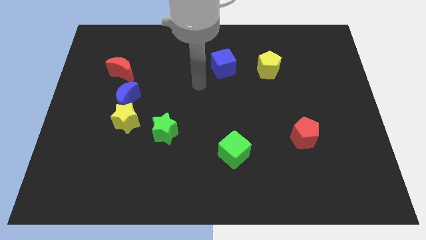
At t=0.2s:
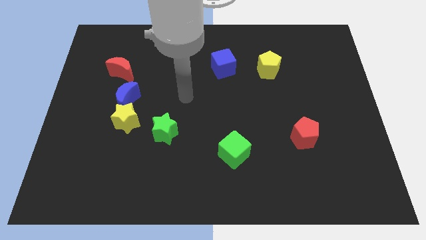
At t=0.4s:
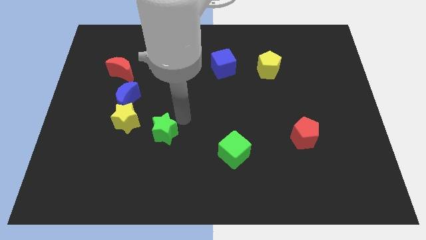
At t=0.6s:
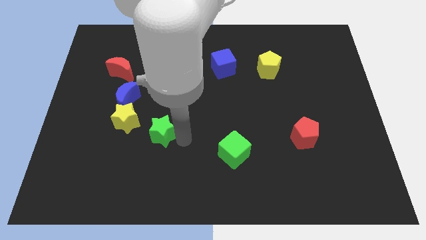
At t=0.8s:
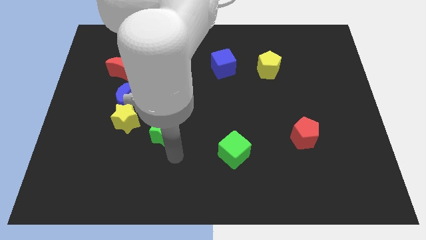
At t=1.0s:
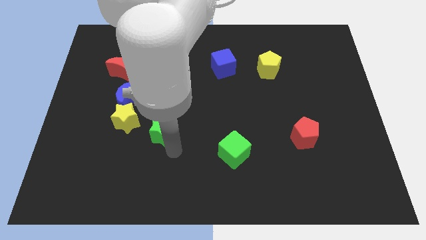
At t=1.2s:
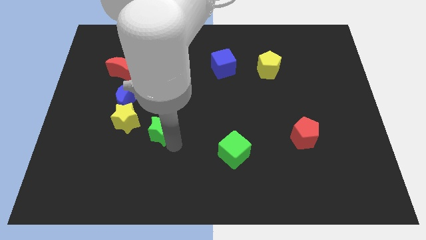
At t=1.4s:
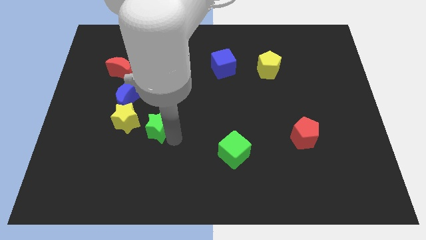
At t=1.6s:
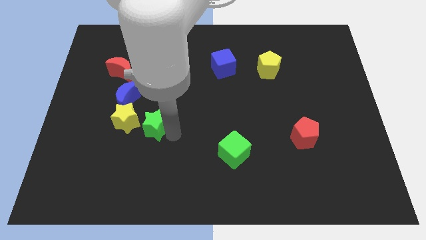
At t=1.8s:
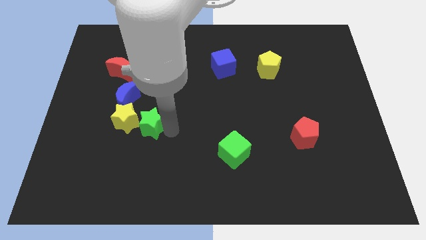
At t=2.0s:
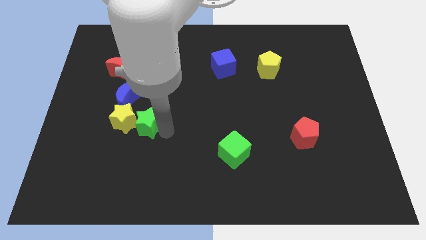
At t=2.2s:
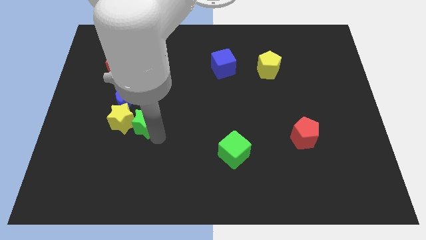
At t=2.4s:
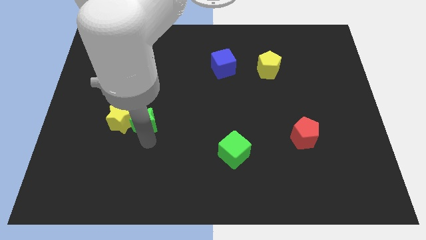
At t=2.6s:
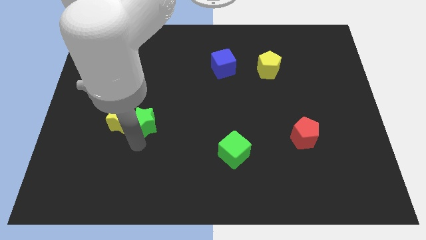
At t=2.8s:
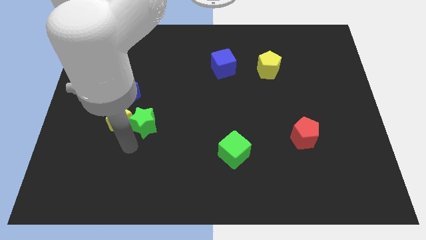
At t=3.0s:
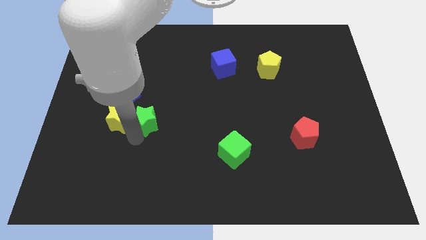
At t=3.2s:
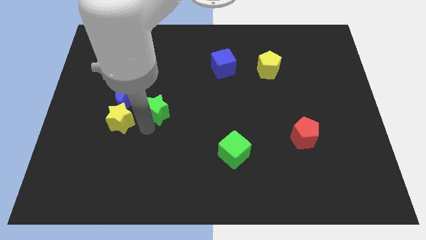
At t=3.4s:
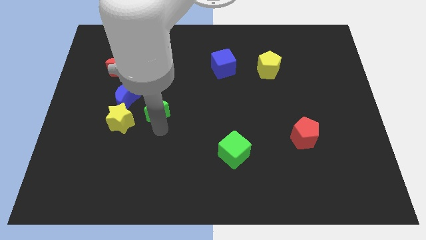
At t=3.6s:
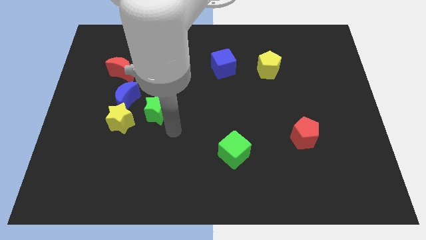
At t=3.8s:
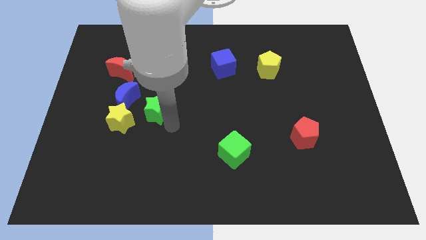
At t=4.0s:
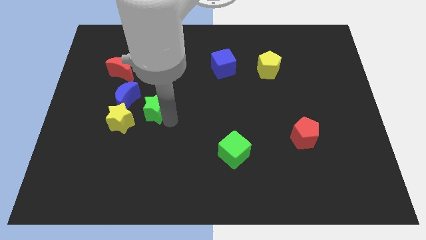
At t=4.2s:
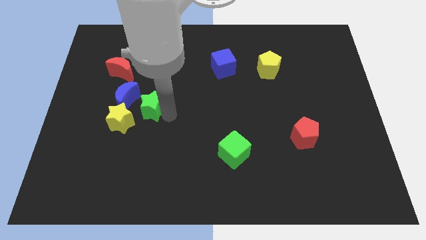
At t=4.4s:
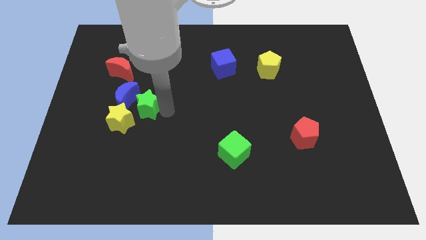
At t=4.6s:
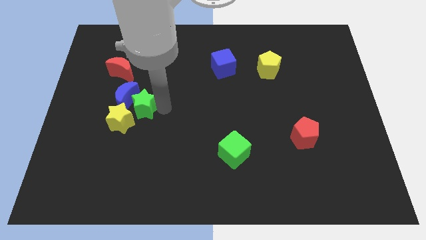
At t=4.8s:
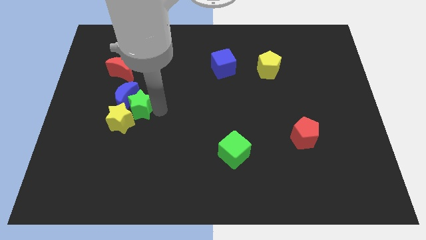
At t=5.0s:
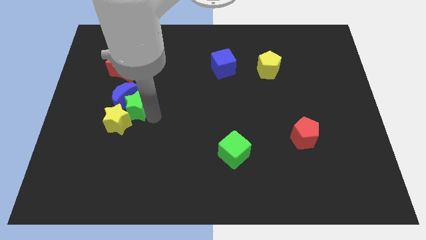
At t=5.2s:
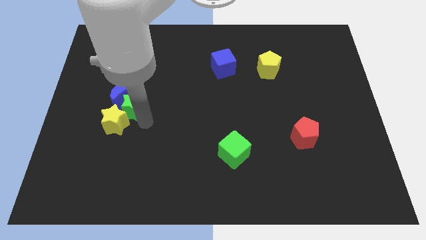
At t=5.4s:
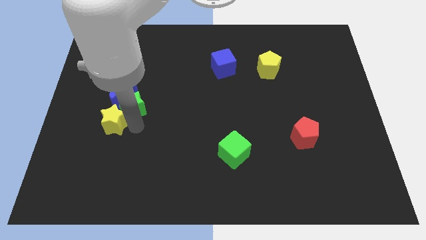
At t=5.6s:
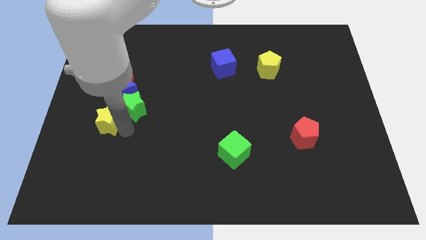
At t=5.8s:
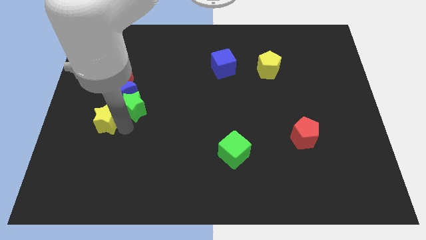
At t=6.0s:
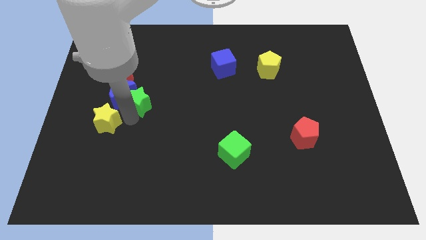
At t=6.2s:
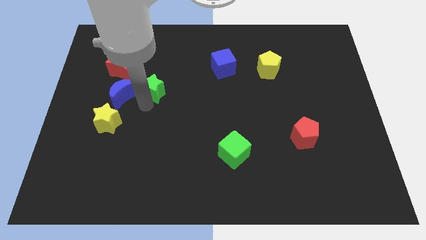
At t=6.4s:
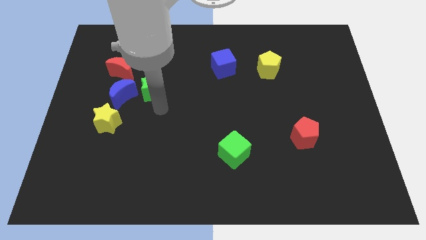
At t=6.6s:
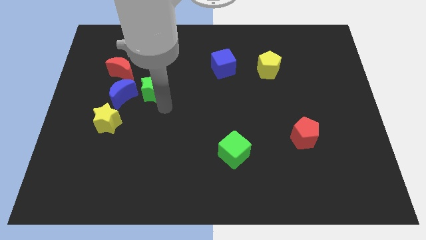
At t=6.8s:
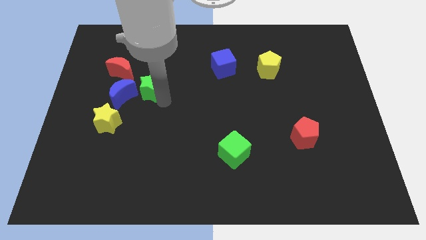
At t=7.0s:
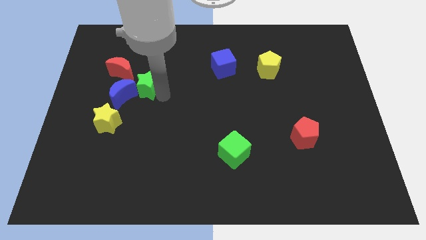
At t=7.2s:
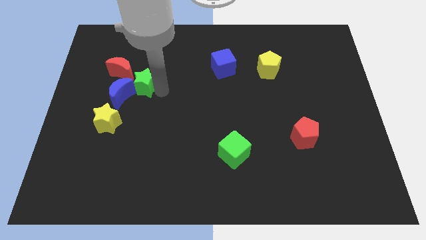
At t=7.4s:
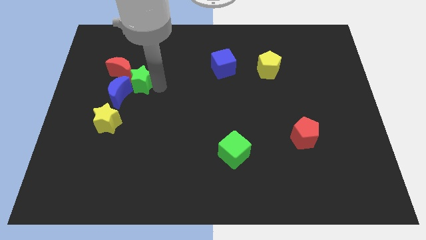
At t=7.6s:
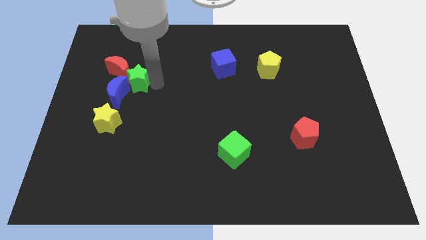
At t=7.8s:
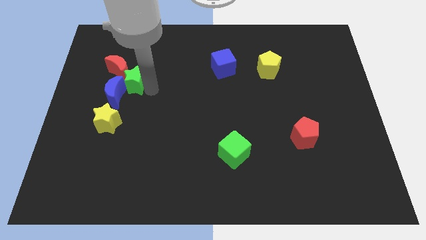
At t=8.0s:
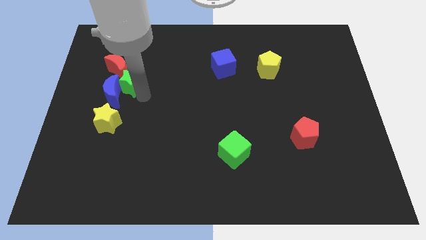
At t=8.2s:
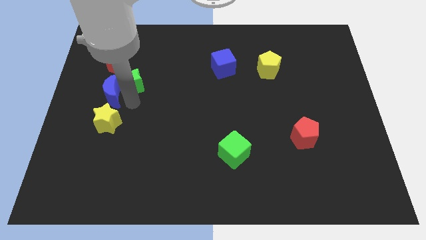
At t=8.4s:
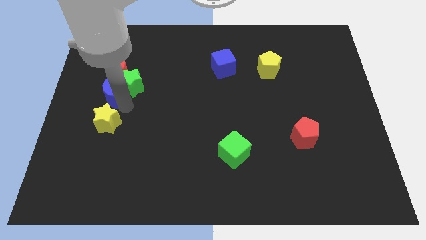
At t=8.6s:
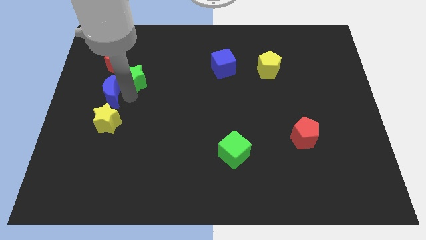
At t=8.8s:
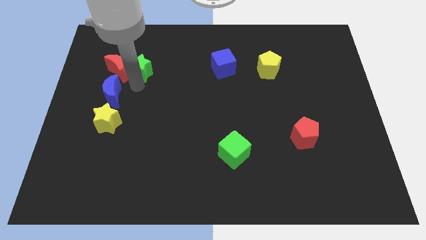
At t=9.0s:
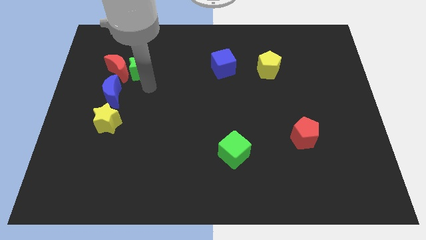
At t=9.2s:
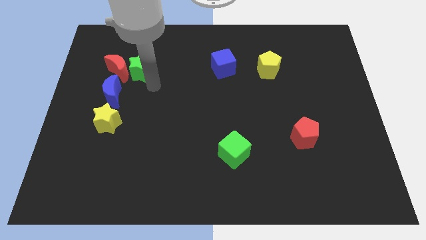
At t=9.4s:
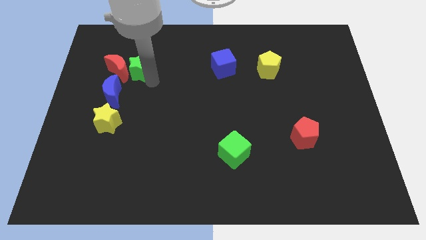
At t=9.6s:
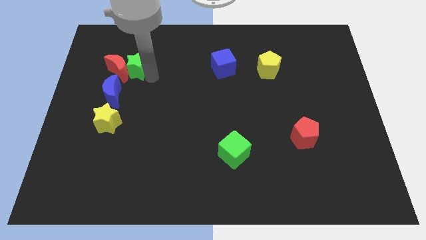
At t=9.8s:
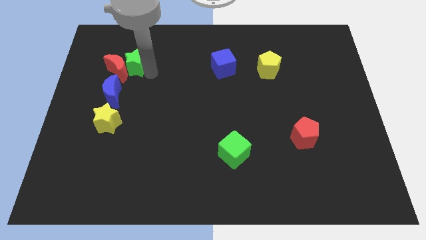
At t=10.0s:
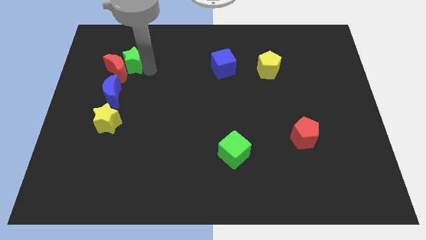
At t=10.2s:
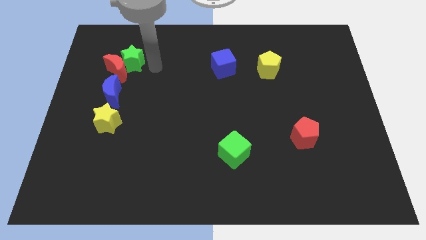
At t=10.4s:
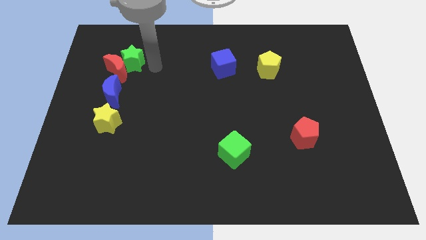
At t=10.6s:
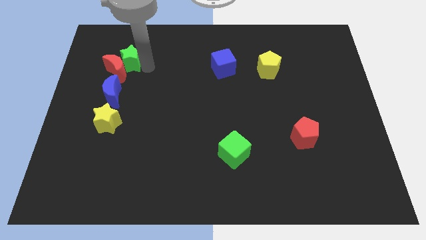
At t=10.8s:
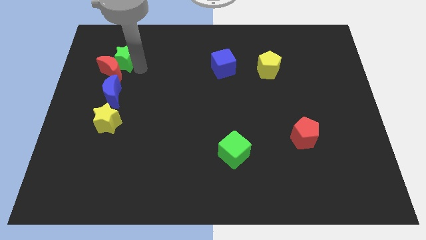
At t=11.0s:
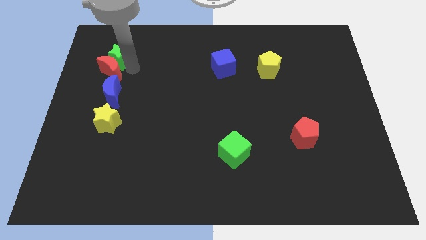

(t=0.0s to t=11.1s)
move the green star to the top left side of the red moon
